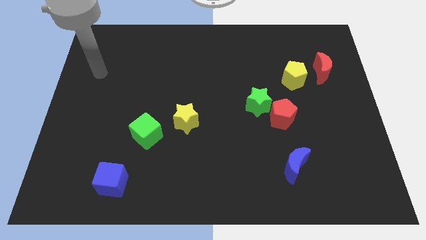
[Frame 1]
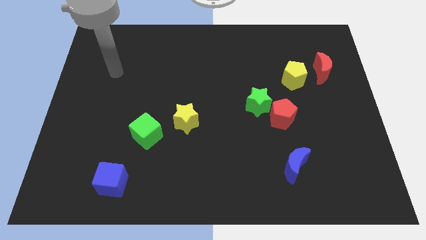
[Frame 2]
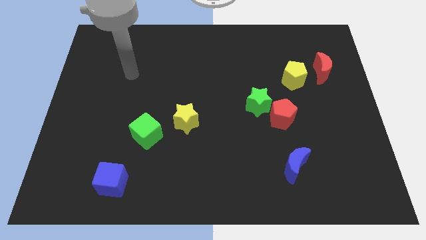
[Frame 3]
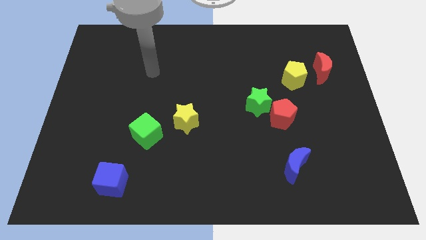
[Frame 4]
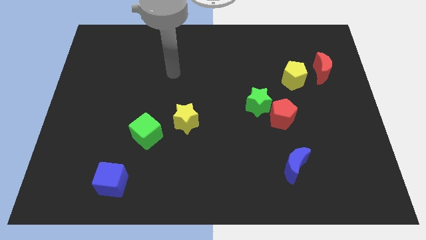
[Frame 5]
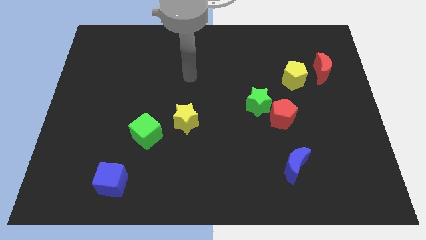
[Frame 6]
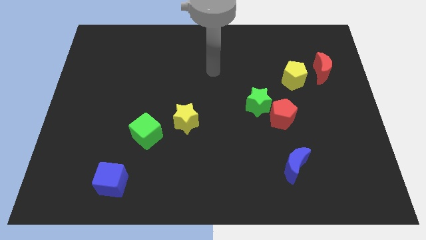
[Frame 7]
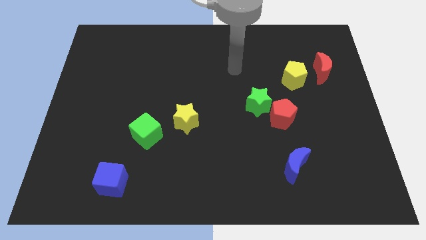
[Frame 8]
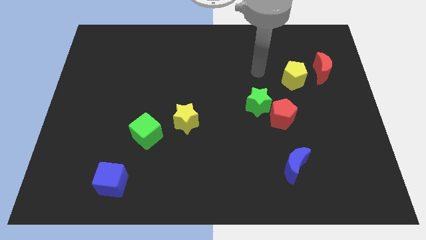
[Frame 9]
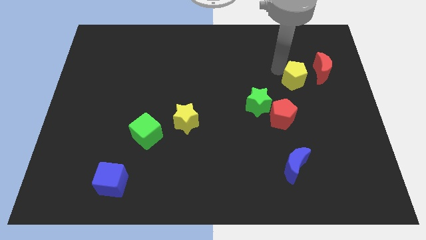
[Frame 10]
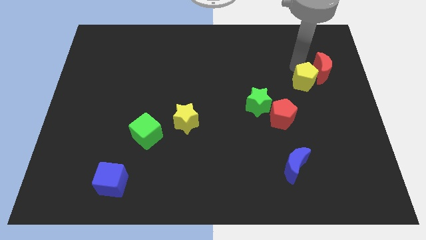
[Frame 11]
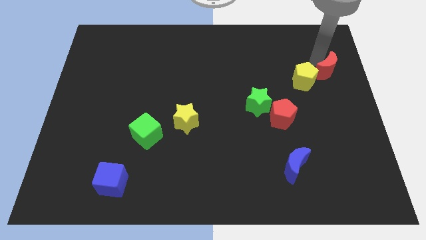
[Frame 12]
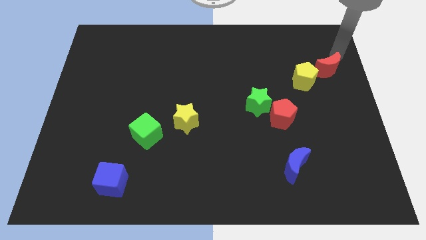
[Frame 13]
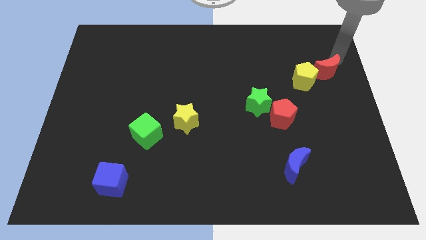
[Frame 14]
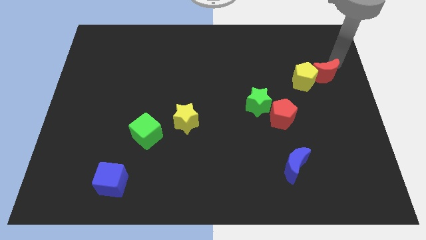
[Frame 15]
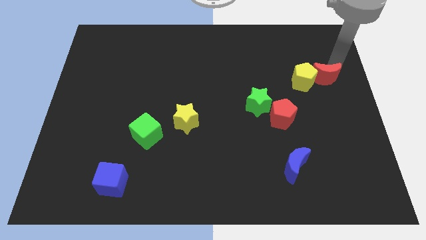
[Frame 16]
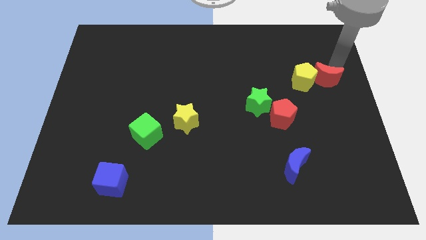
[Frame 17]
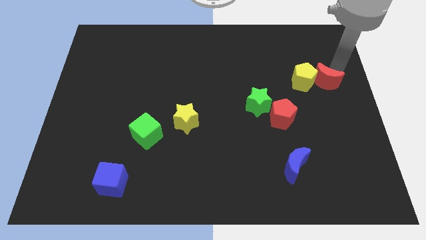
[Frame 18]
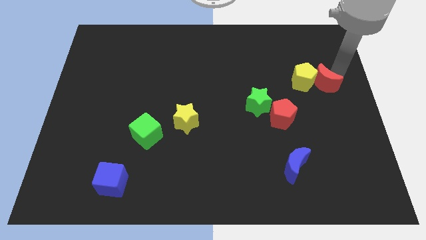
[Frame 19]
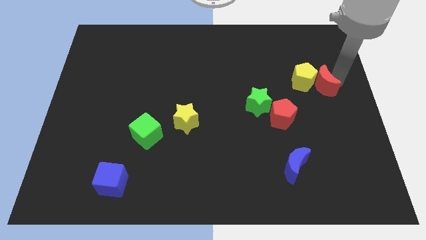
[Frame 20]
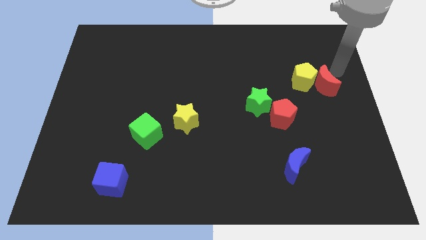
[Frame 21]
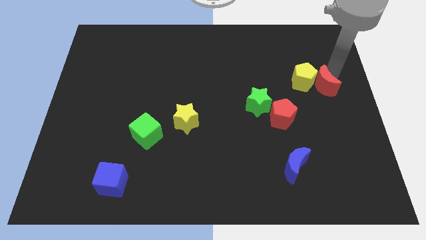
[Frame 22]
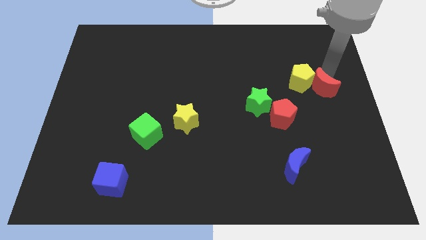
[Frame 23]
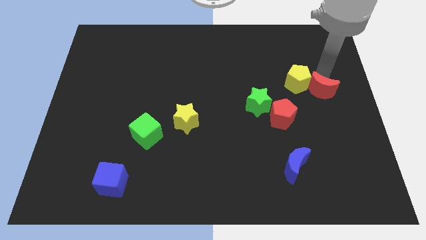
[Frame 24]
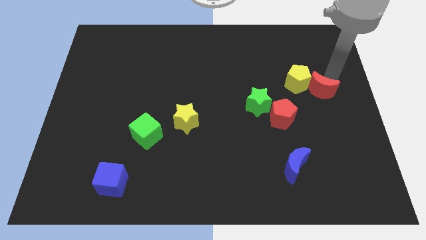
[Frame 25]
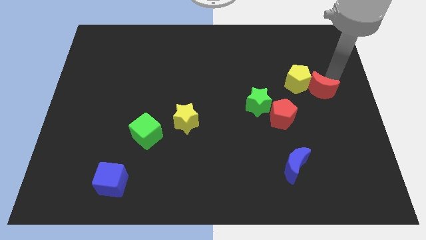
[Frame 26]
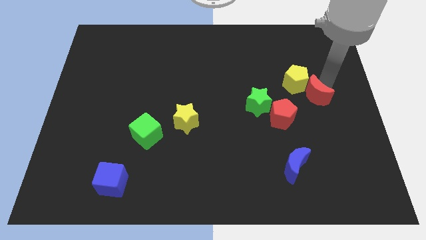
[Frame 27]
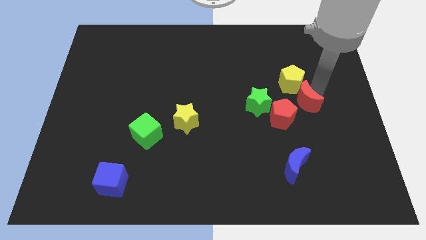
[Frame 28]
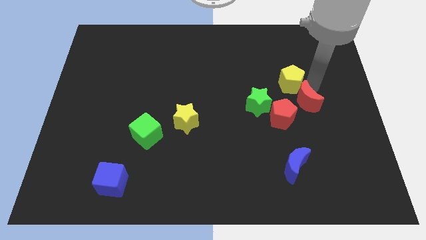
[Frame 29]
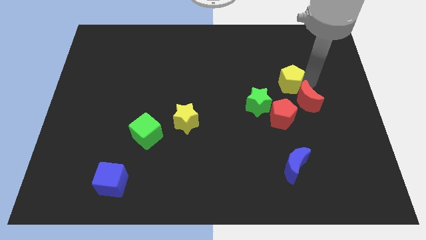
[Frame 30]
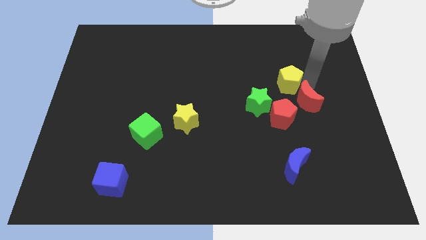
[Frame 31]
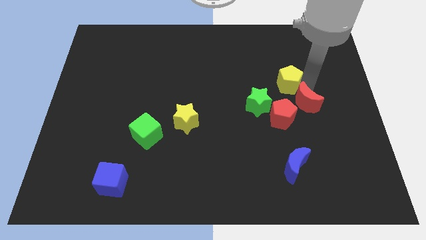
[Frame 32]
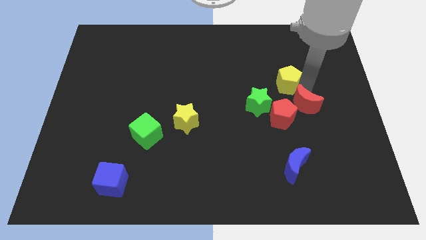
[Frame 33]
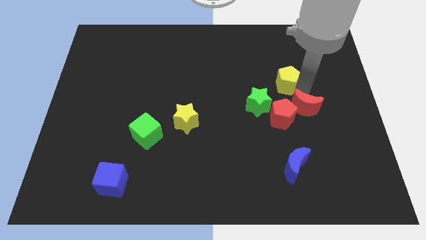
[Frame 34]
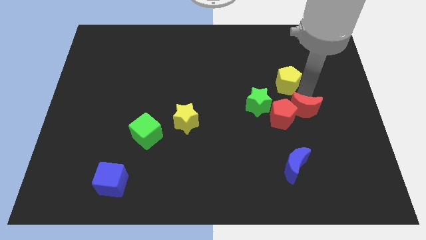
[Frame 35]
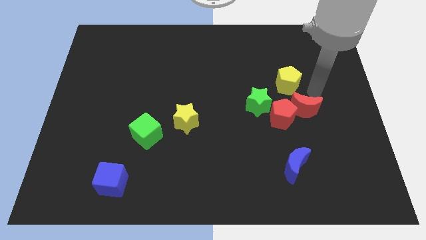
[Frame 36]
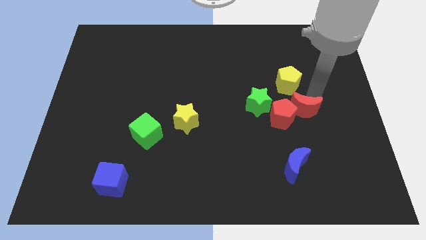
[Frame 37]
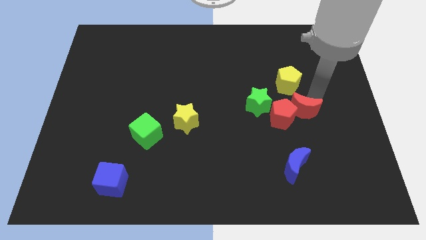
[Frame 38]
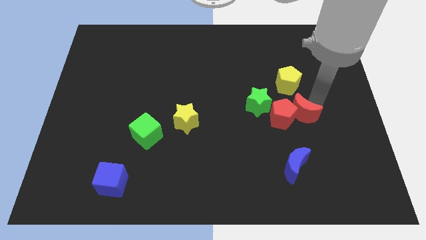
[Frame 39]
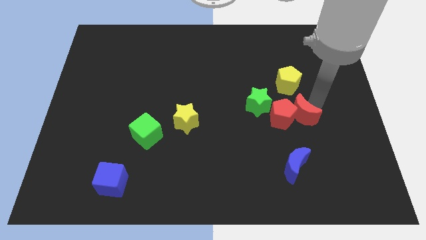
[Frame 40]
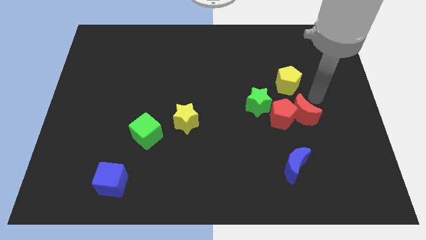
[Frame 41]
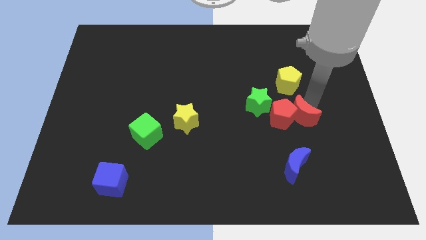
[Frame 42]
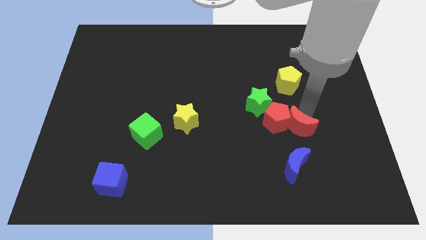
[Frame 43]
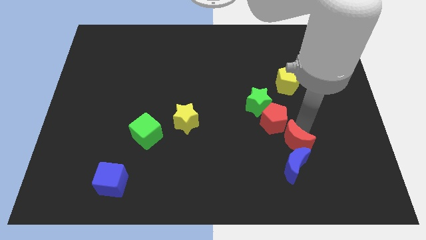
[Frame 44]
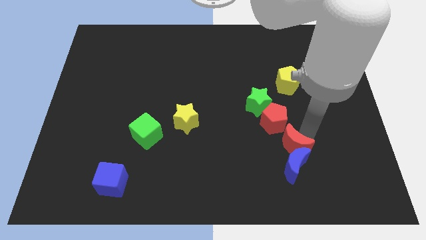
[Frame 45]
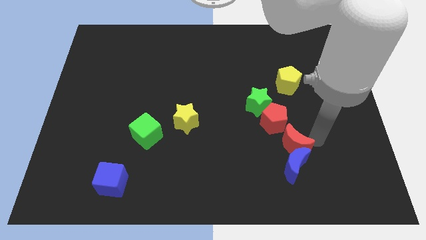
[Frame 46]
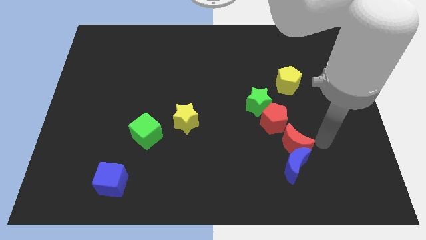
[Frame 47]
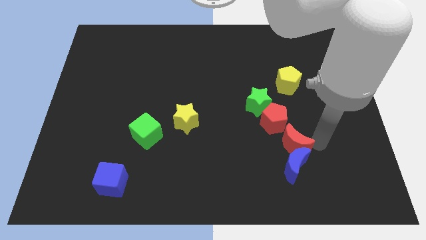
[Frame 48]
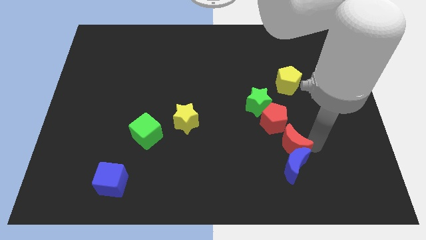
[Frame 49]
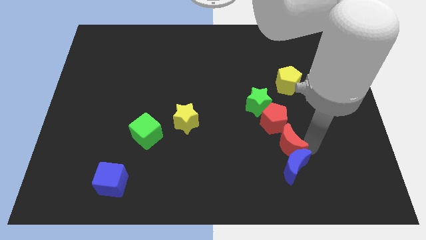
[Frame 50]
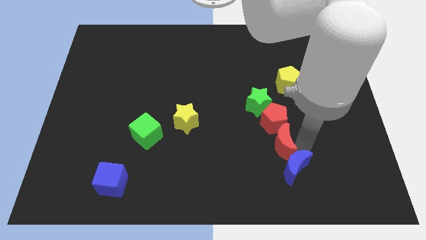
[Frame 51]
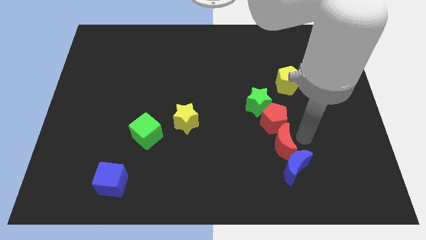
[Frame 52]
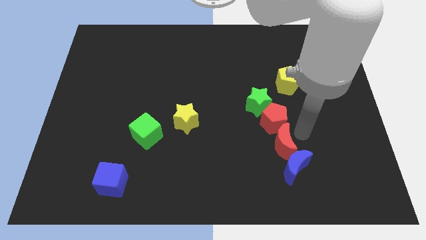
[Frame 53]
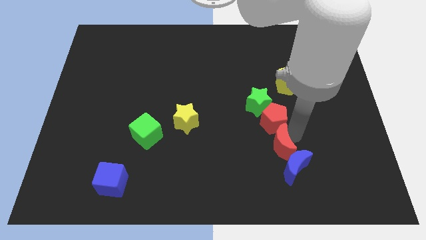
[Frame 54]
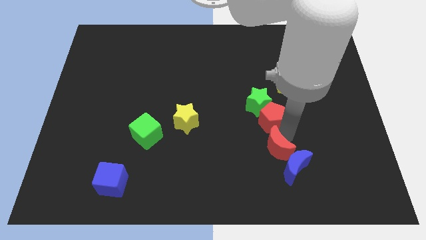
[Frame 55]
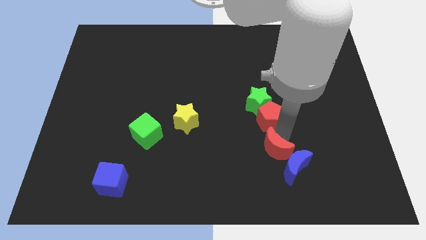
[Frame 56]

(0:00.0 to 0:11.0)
slide the red moon left of the blue moon

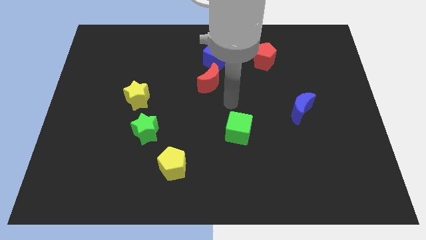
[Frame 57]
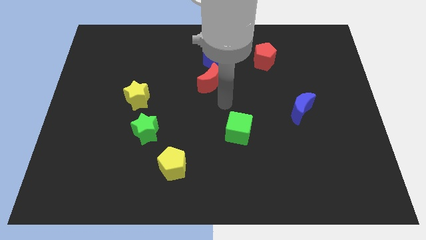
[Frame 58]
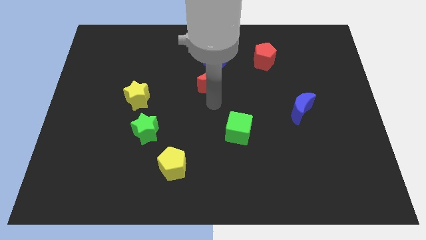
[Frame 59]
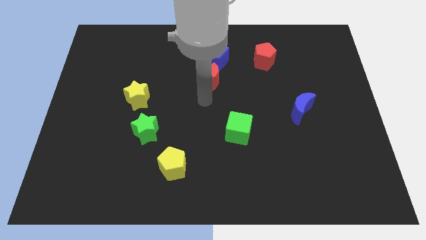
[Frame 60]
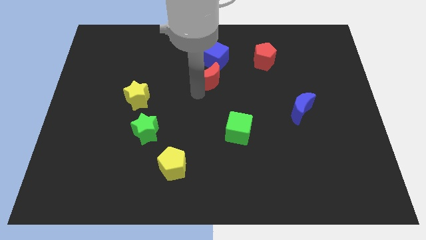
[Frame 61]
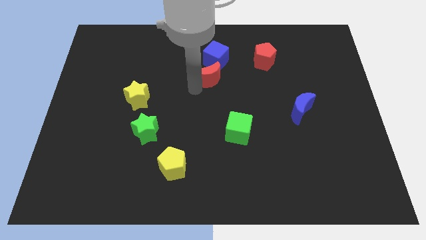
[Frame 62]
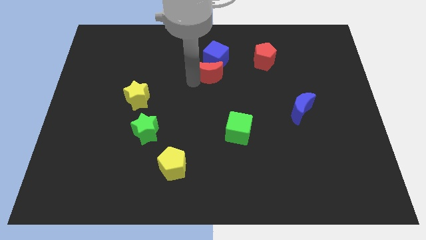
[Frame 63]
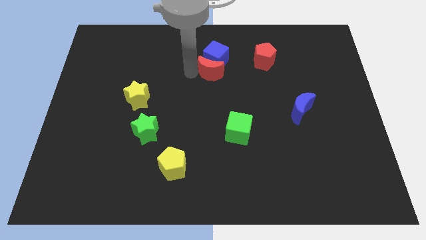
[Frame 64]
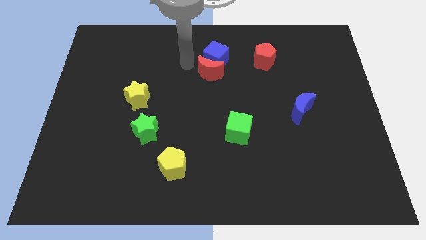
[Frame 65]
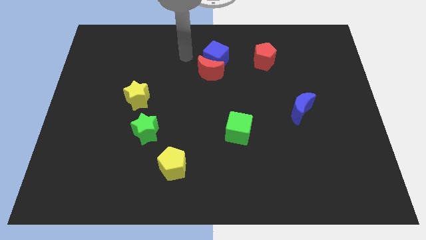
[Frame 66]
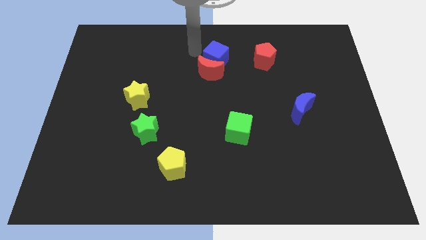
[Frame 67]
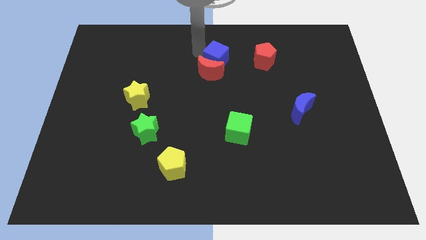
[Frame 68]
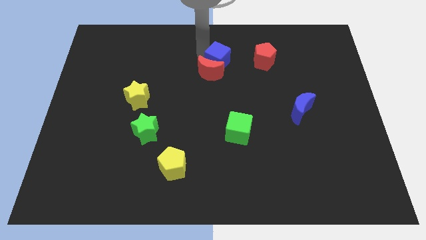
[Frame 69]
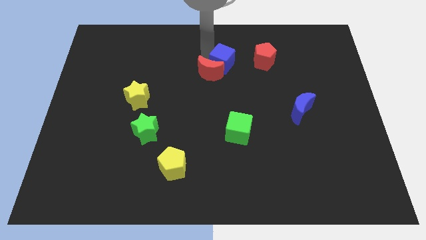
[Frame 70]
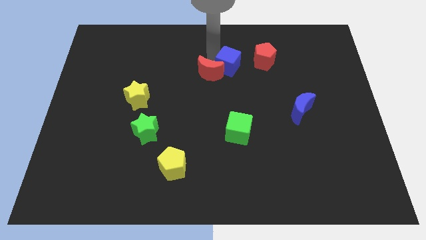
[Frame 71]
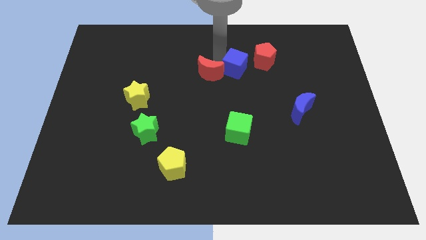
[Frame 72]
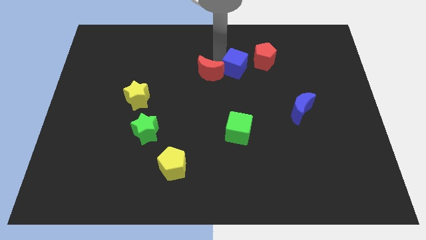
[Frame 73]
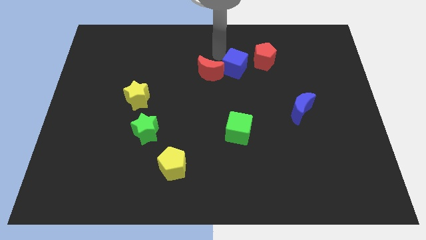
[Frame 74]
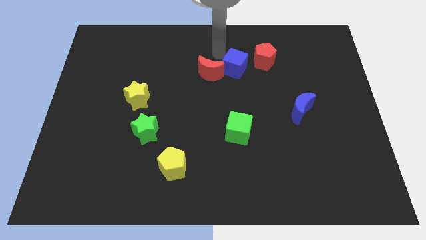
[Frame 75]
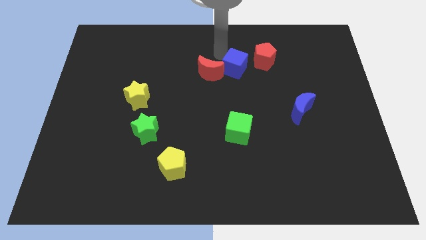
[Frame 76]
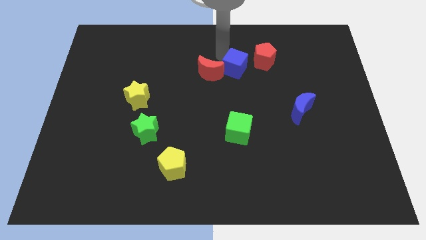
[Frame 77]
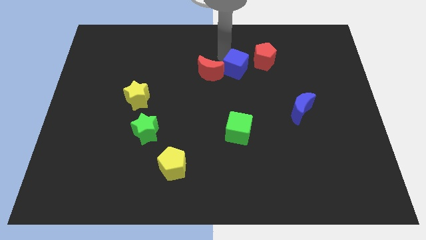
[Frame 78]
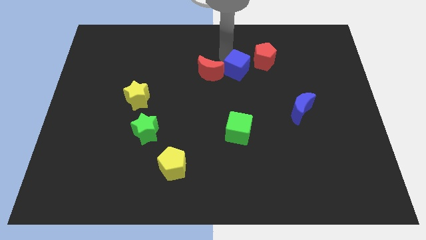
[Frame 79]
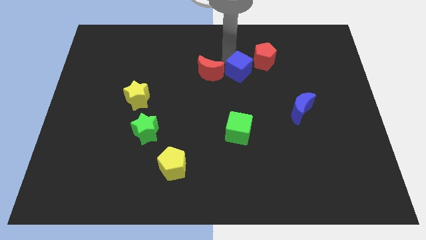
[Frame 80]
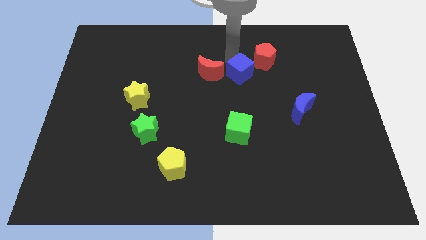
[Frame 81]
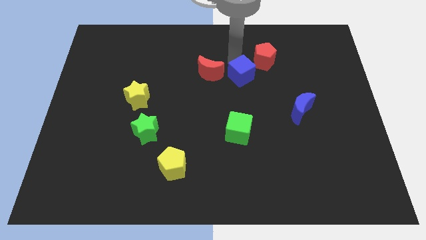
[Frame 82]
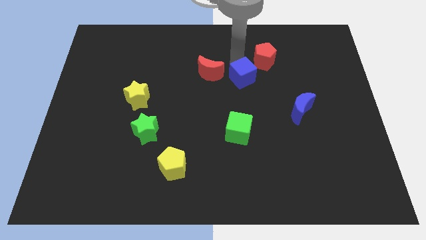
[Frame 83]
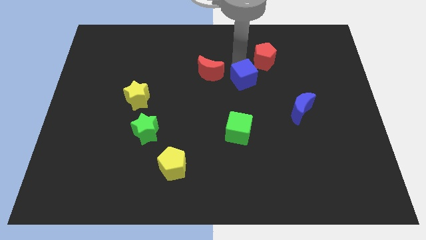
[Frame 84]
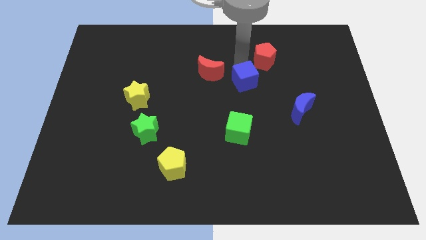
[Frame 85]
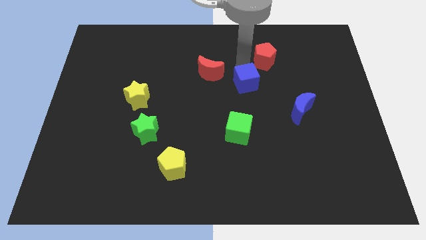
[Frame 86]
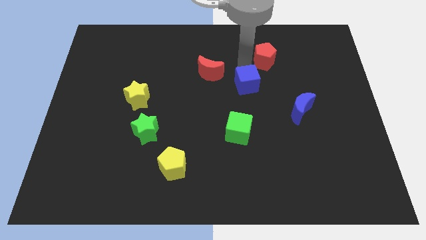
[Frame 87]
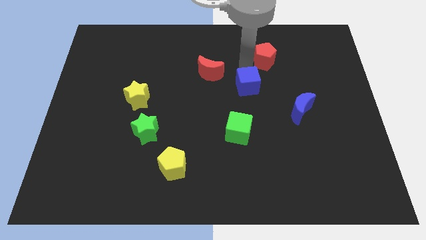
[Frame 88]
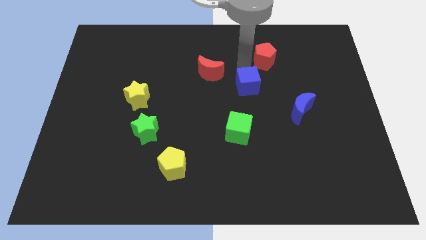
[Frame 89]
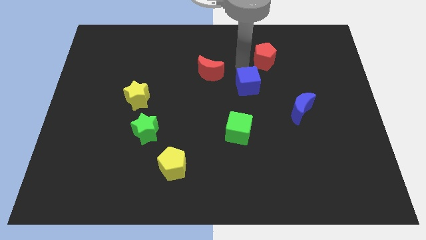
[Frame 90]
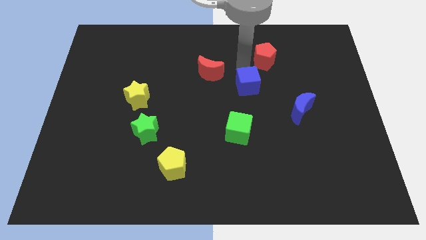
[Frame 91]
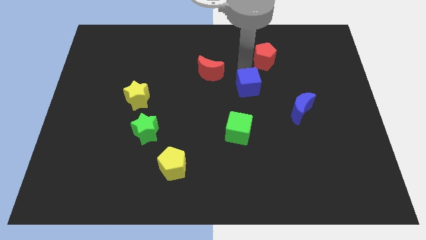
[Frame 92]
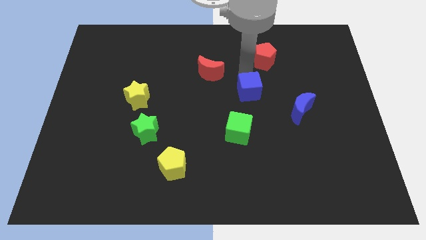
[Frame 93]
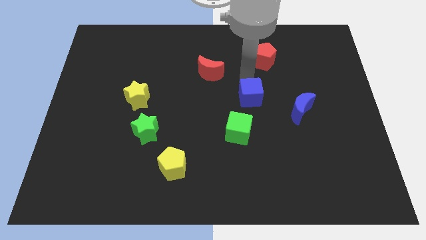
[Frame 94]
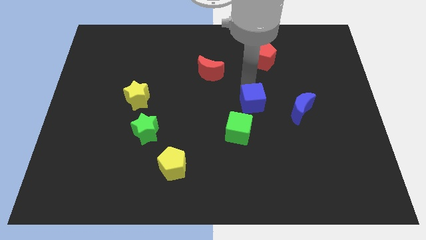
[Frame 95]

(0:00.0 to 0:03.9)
put the blue cube diagonally up and to the right of the green cube
